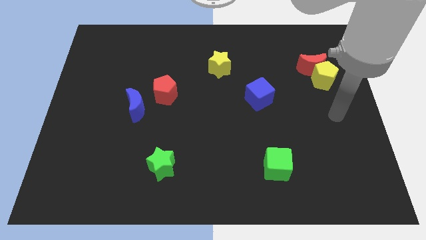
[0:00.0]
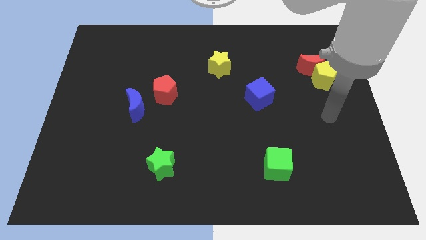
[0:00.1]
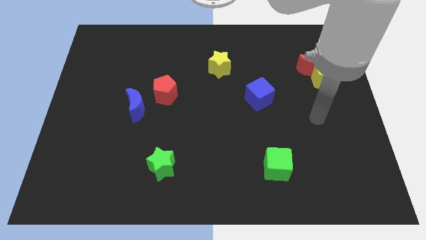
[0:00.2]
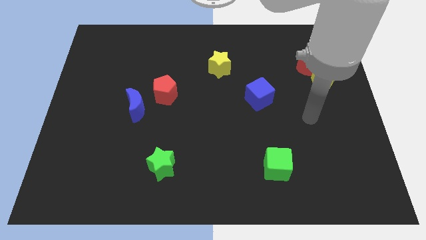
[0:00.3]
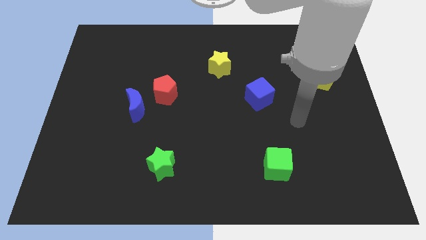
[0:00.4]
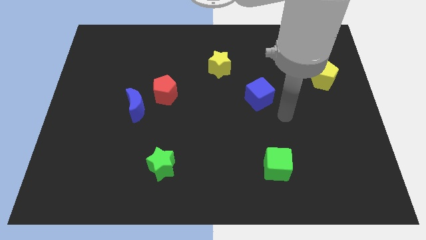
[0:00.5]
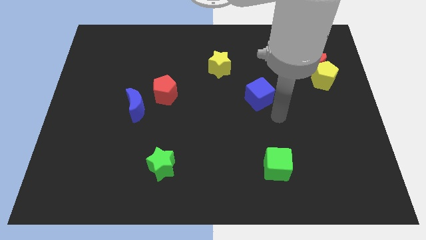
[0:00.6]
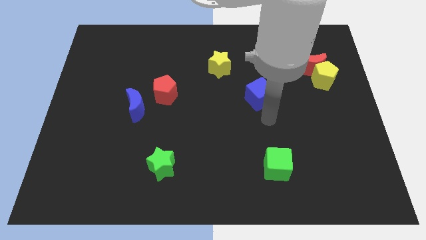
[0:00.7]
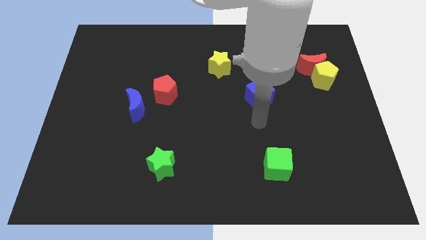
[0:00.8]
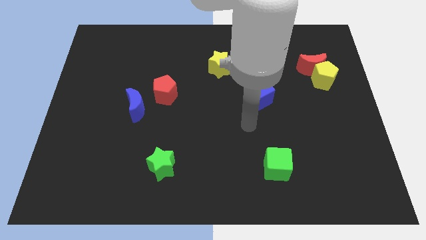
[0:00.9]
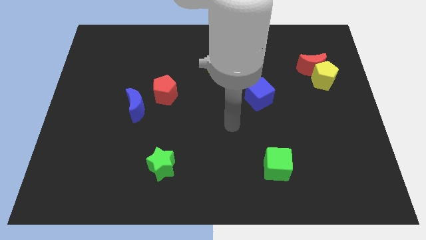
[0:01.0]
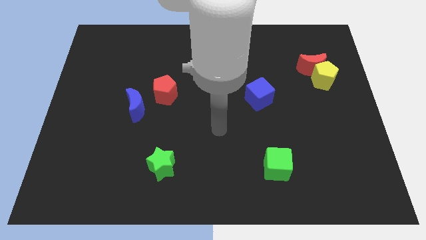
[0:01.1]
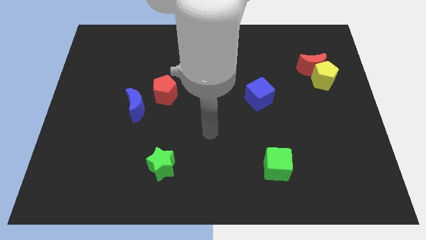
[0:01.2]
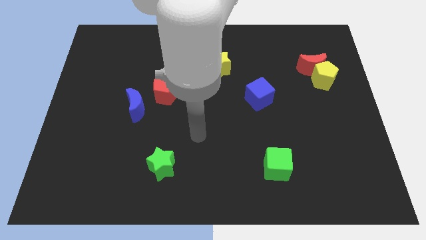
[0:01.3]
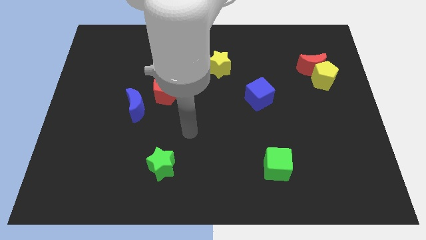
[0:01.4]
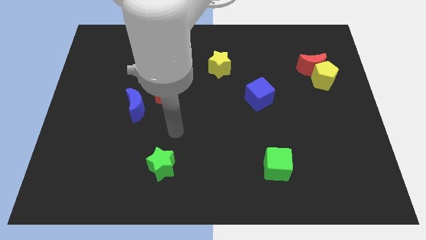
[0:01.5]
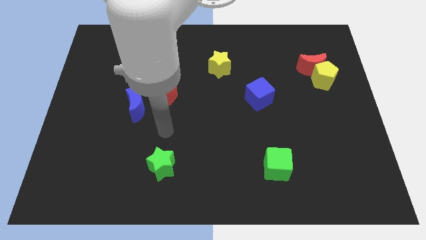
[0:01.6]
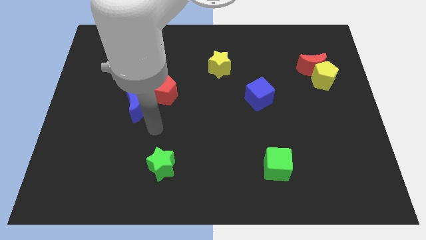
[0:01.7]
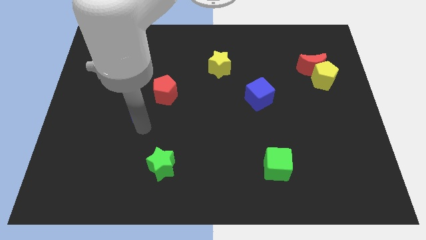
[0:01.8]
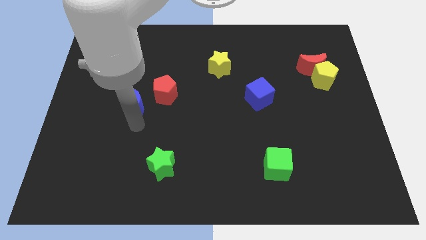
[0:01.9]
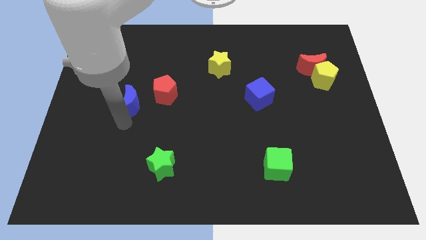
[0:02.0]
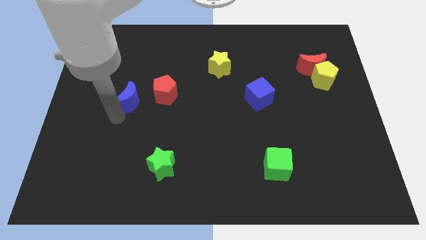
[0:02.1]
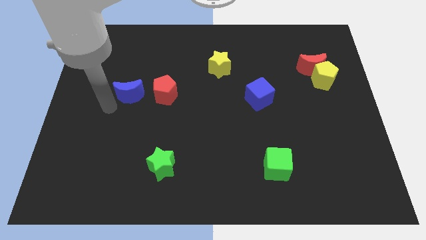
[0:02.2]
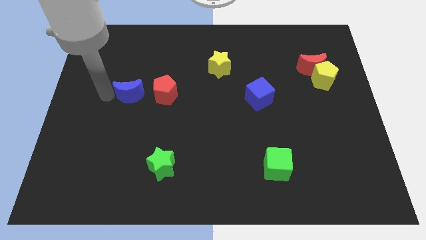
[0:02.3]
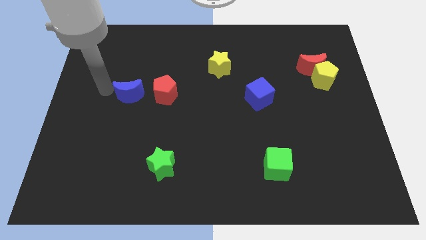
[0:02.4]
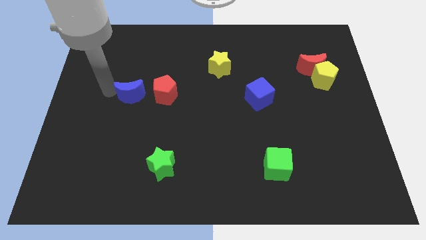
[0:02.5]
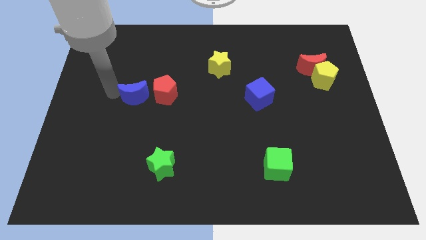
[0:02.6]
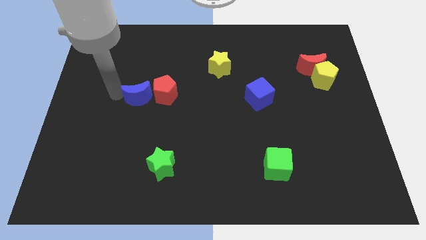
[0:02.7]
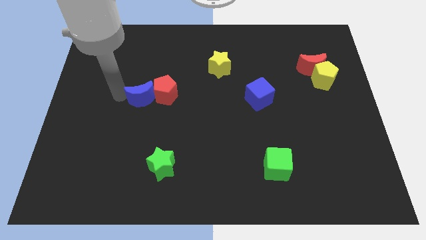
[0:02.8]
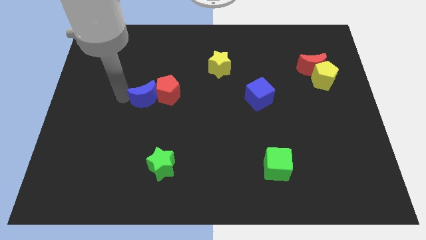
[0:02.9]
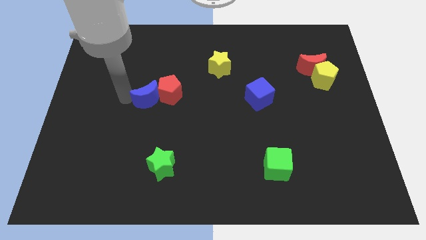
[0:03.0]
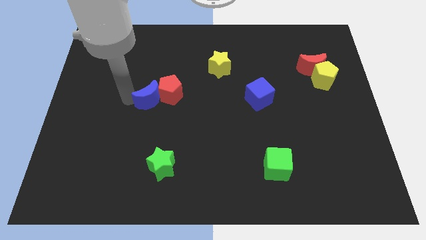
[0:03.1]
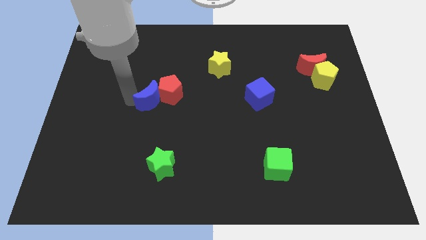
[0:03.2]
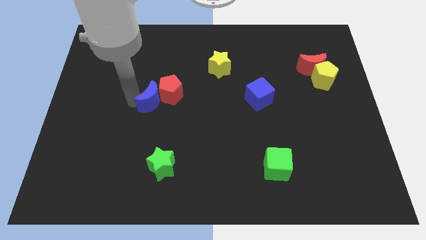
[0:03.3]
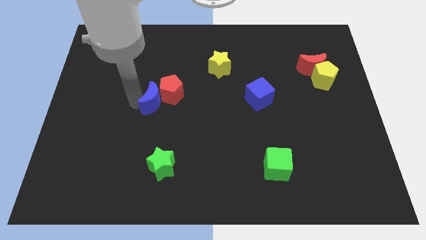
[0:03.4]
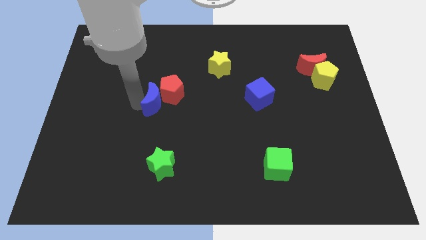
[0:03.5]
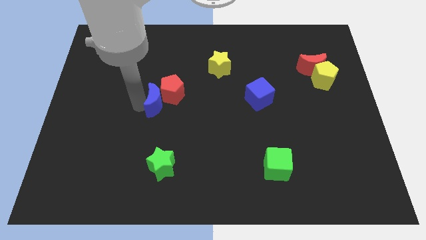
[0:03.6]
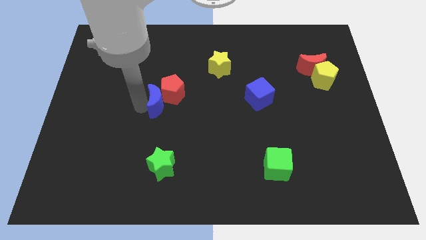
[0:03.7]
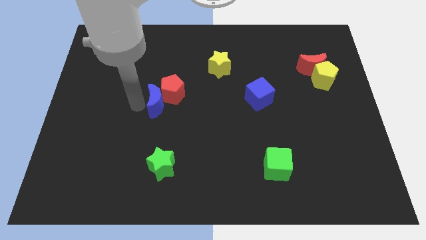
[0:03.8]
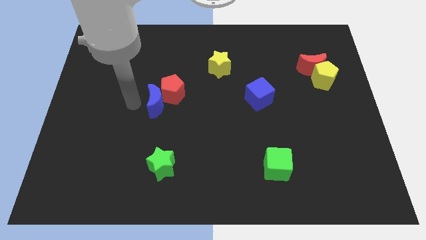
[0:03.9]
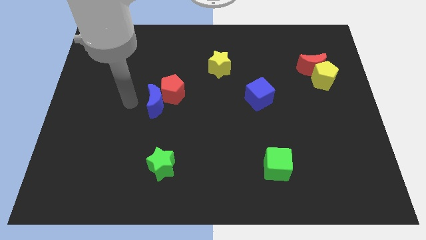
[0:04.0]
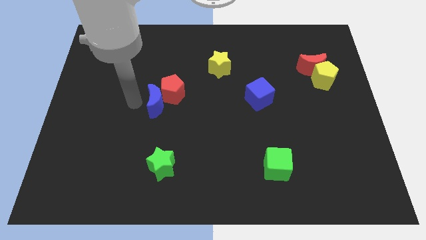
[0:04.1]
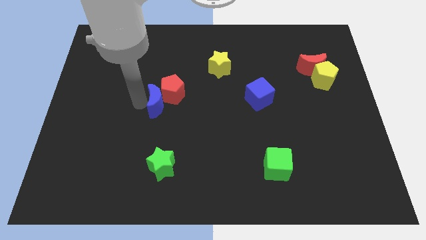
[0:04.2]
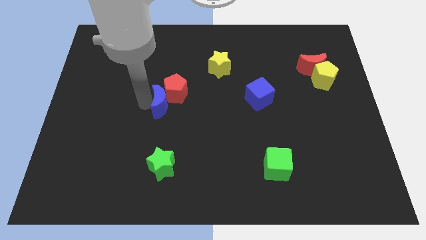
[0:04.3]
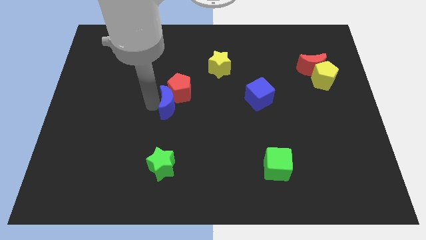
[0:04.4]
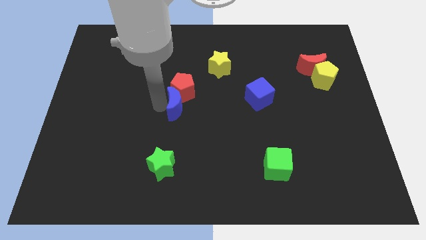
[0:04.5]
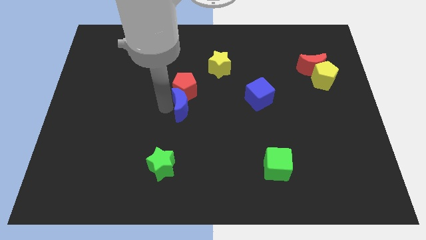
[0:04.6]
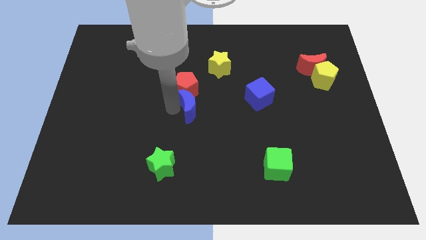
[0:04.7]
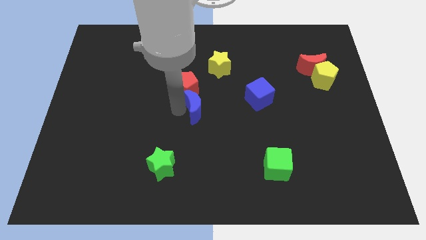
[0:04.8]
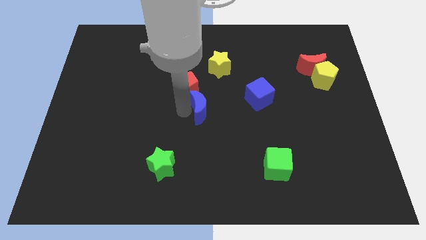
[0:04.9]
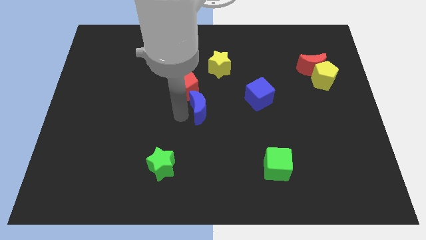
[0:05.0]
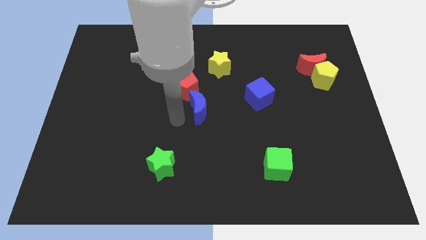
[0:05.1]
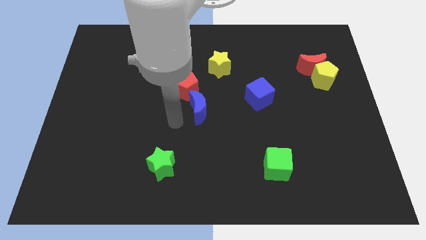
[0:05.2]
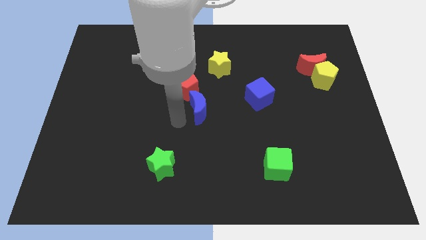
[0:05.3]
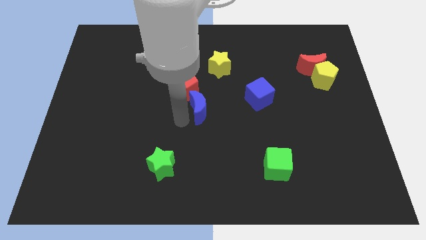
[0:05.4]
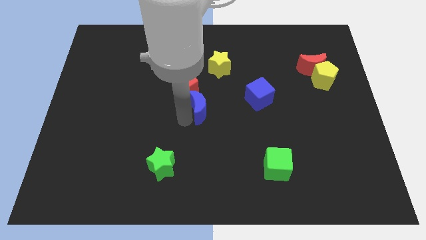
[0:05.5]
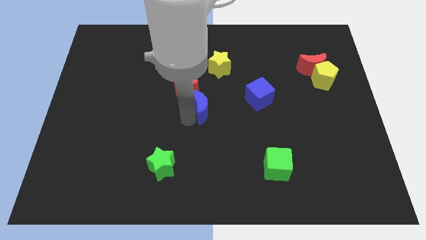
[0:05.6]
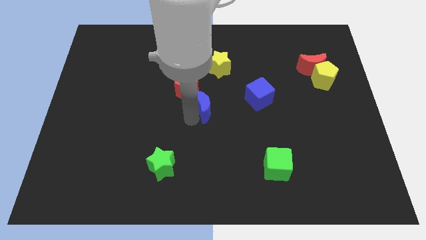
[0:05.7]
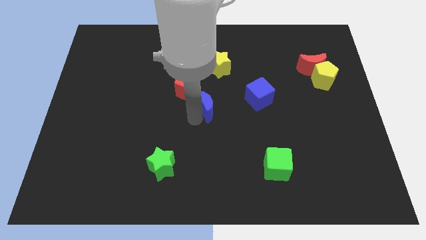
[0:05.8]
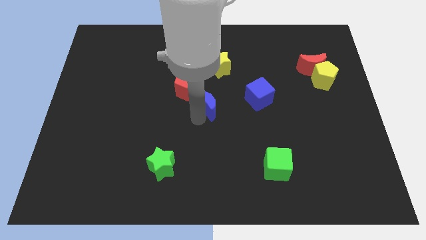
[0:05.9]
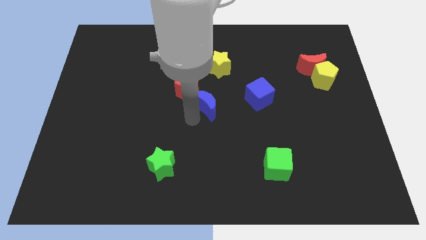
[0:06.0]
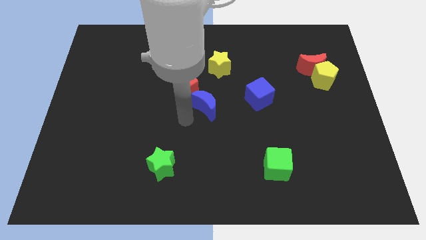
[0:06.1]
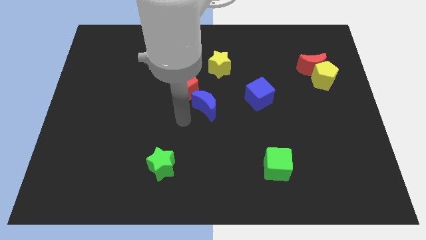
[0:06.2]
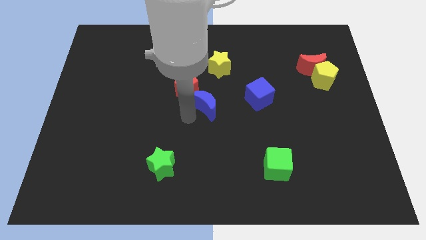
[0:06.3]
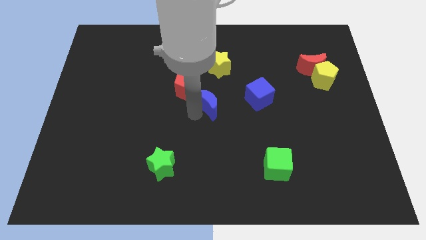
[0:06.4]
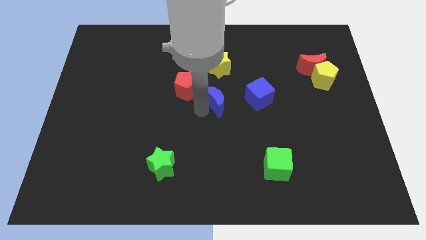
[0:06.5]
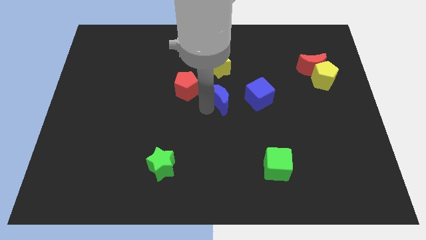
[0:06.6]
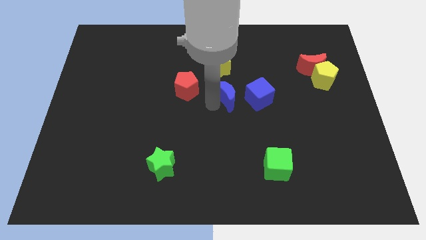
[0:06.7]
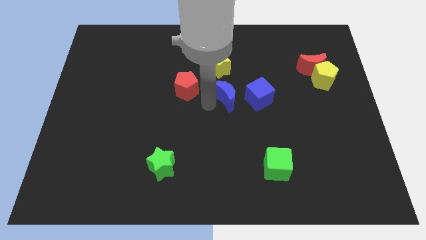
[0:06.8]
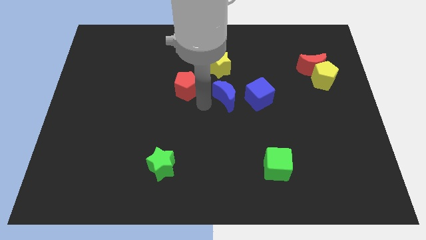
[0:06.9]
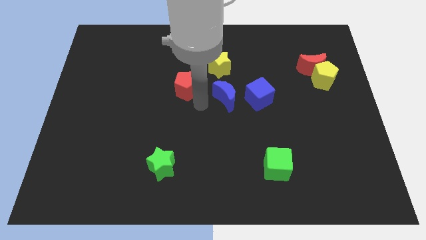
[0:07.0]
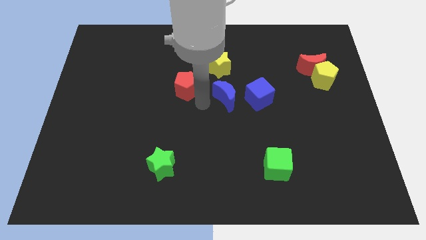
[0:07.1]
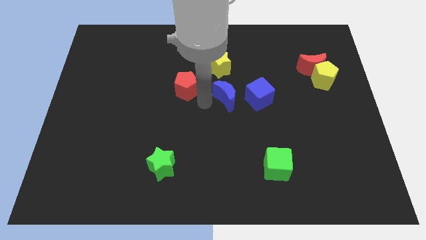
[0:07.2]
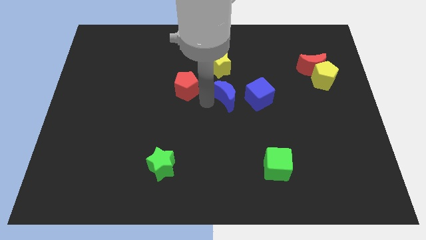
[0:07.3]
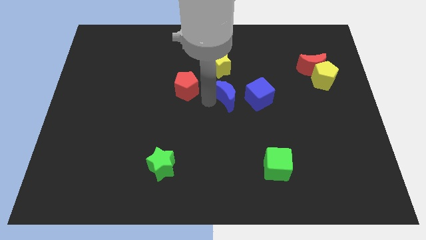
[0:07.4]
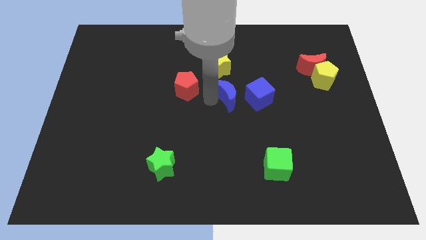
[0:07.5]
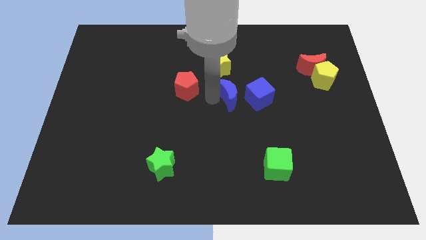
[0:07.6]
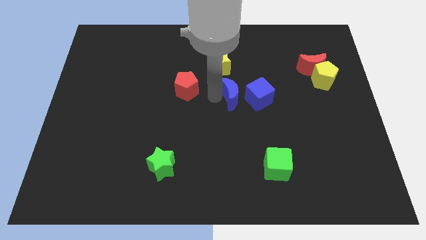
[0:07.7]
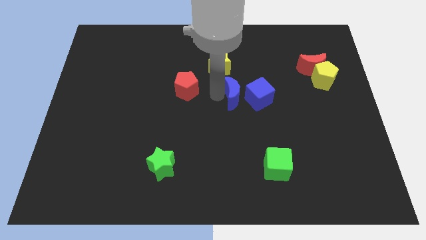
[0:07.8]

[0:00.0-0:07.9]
move the blue moon towards the blue cube
